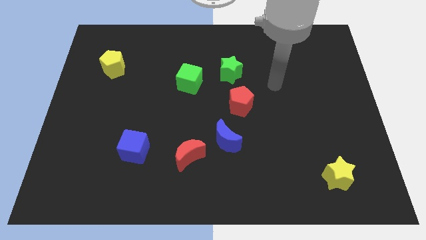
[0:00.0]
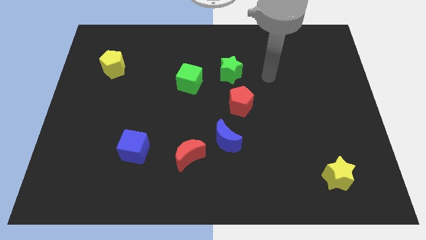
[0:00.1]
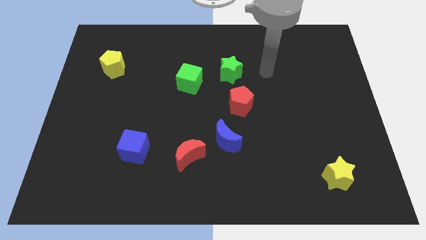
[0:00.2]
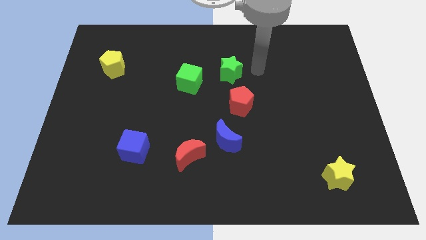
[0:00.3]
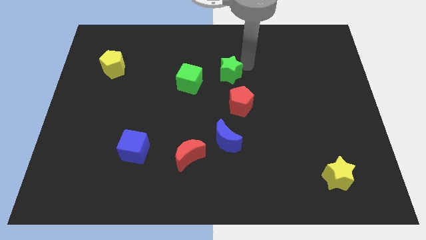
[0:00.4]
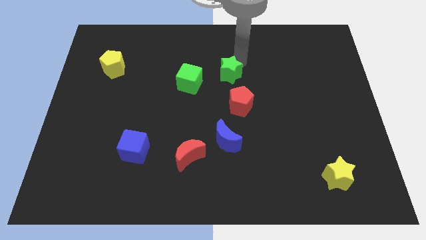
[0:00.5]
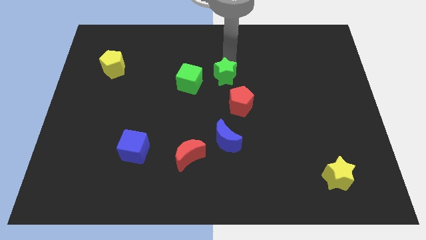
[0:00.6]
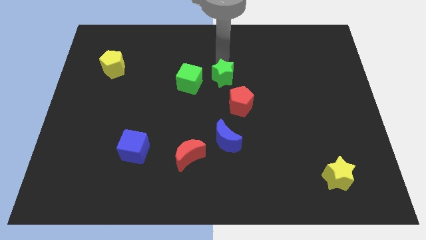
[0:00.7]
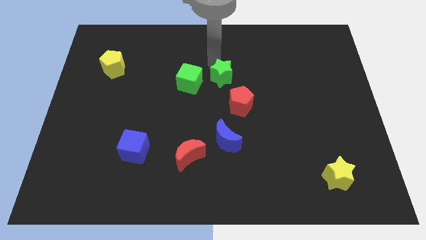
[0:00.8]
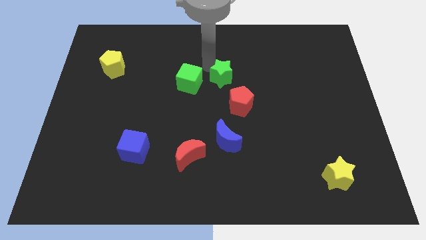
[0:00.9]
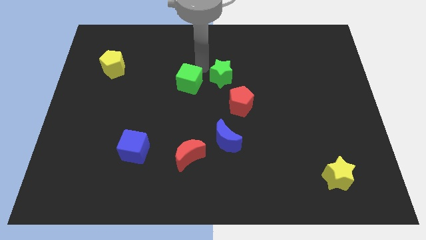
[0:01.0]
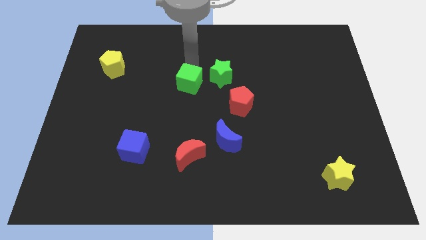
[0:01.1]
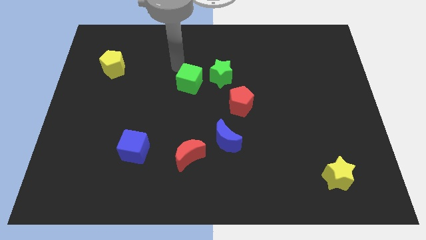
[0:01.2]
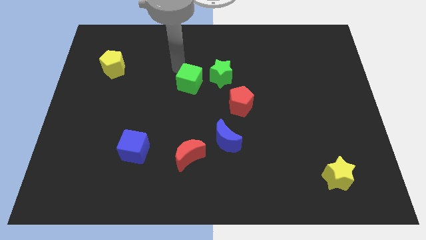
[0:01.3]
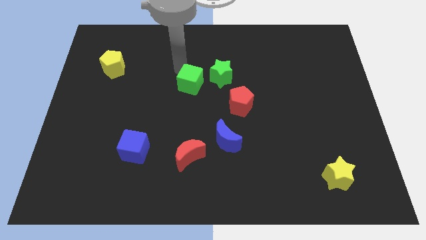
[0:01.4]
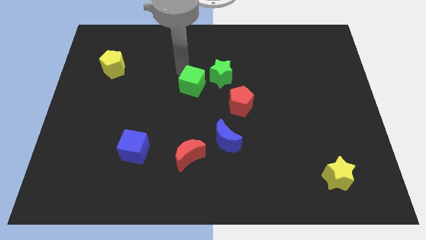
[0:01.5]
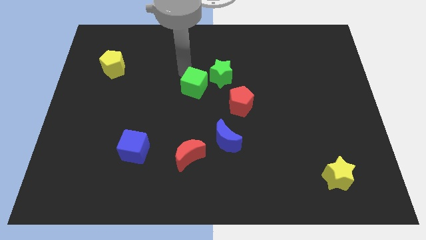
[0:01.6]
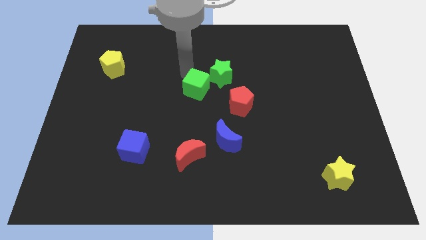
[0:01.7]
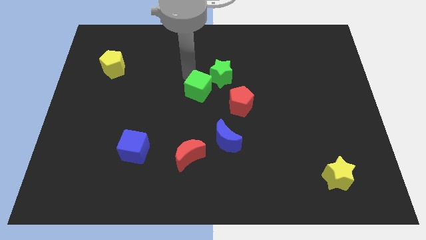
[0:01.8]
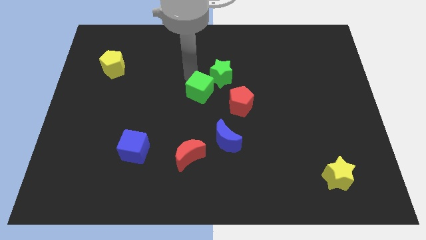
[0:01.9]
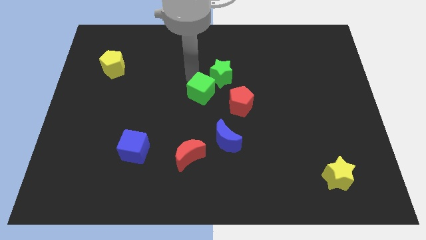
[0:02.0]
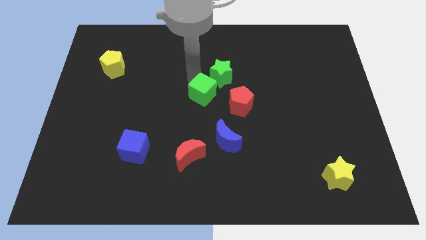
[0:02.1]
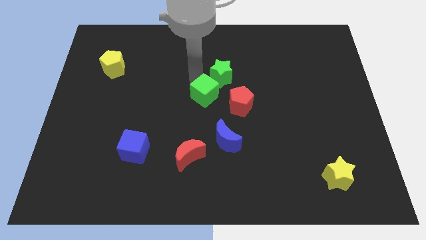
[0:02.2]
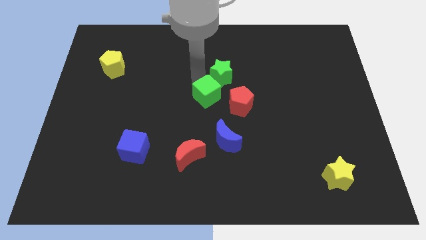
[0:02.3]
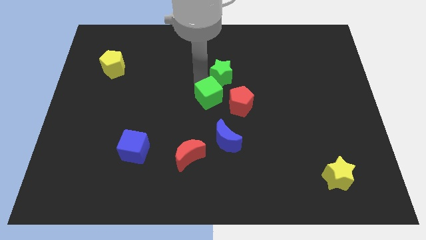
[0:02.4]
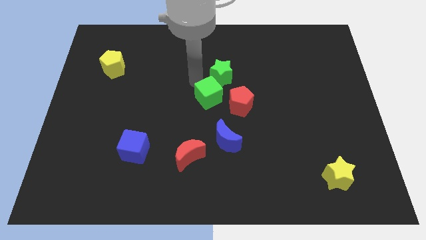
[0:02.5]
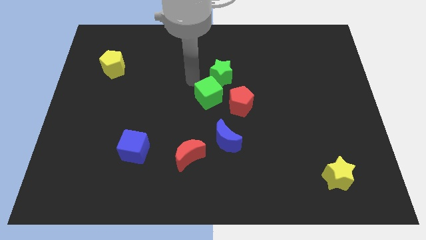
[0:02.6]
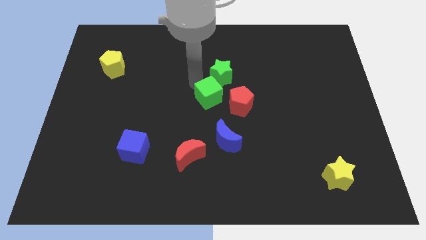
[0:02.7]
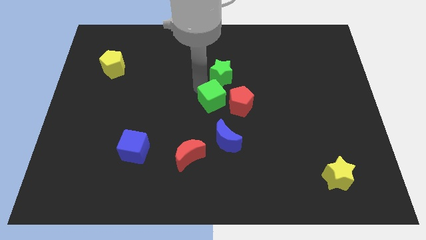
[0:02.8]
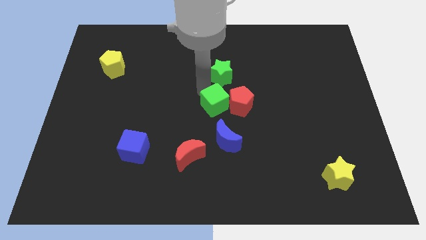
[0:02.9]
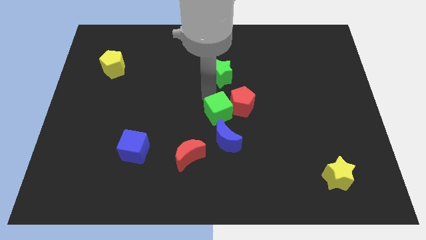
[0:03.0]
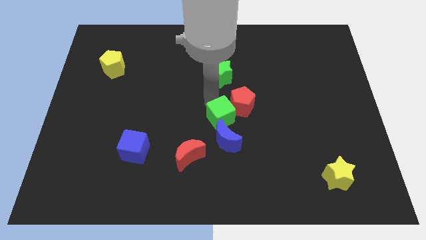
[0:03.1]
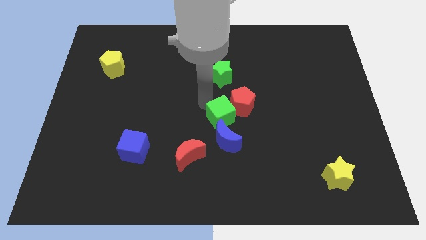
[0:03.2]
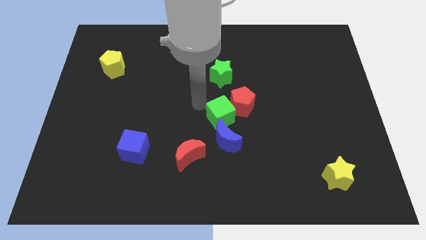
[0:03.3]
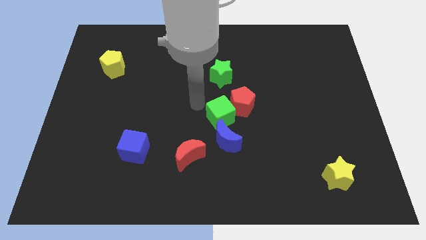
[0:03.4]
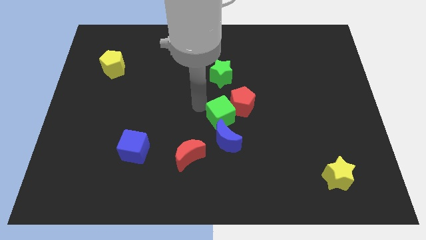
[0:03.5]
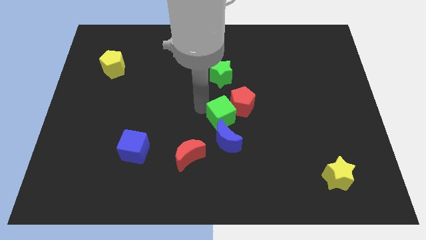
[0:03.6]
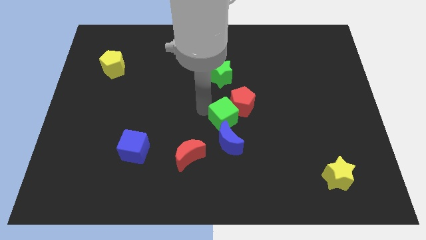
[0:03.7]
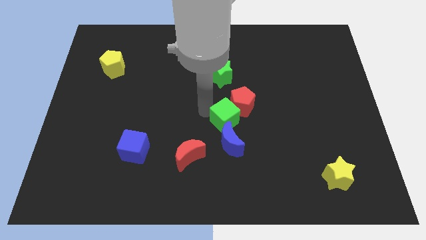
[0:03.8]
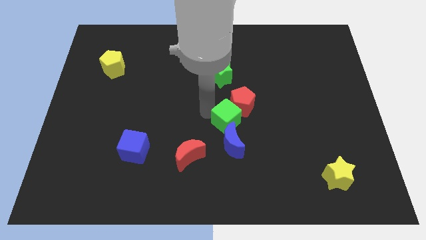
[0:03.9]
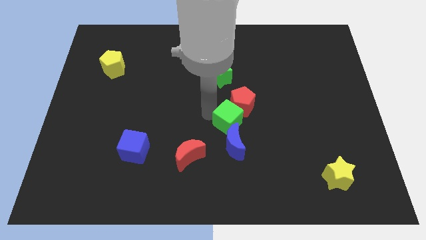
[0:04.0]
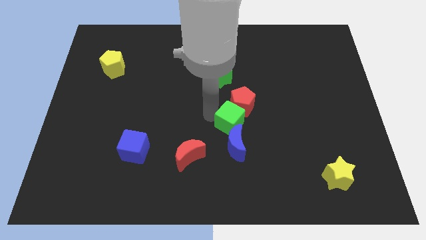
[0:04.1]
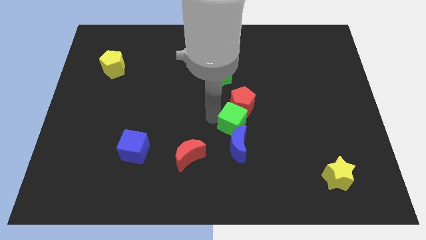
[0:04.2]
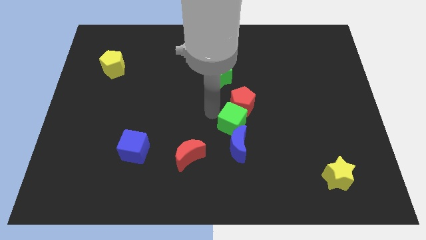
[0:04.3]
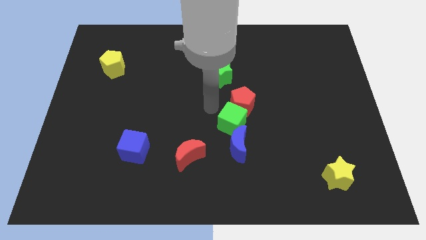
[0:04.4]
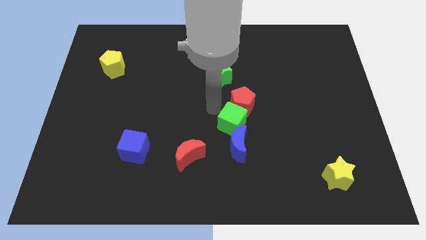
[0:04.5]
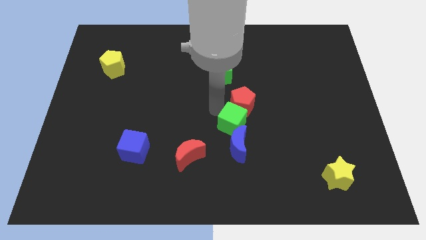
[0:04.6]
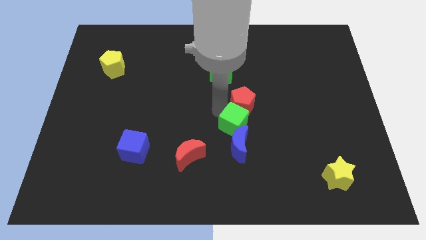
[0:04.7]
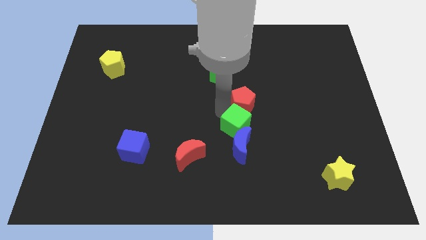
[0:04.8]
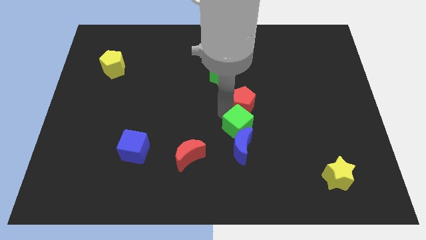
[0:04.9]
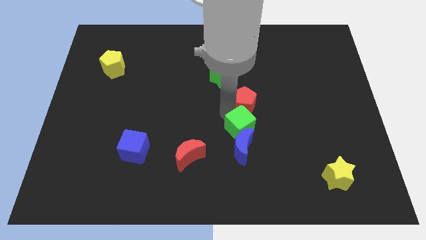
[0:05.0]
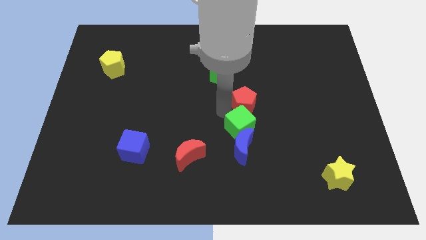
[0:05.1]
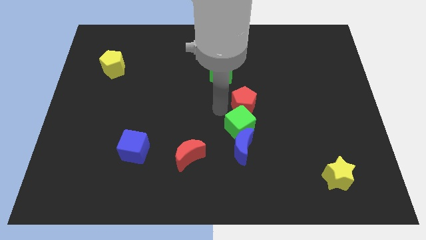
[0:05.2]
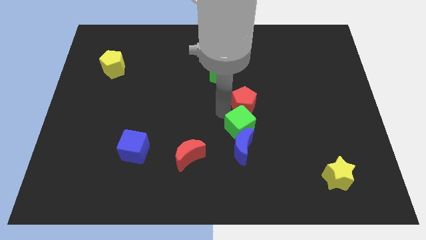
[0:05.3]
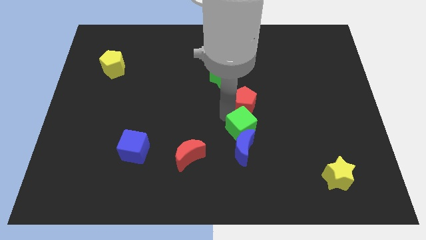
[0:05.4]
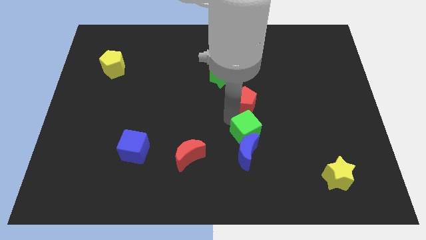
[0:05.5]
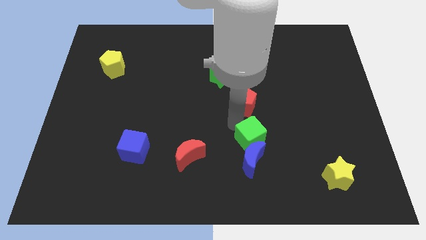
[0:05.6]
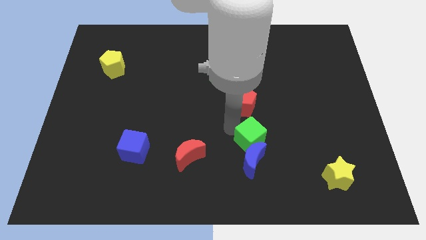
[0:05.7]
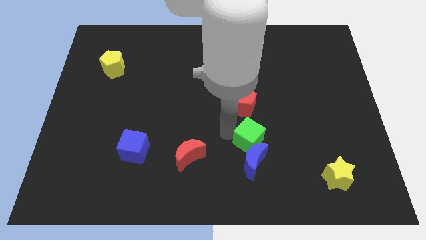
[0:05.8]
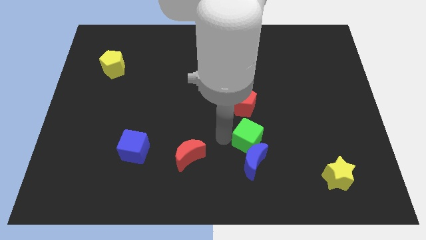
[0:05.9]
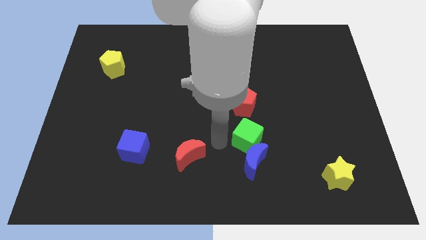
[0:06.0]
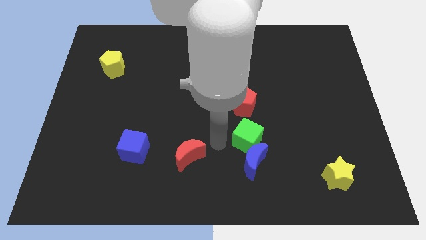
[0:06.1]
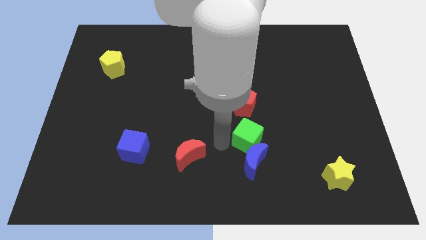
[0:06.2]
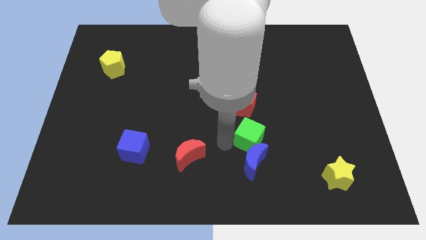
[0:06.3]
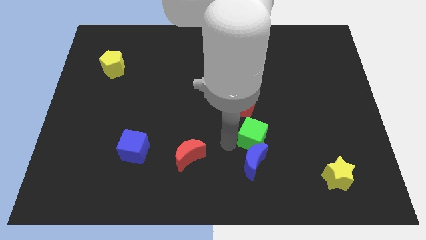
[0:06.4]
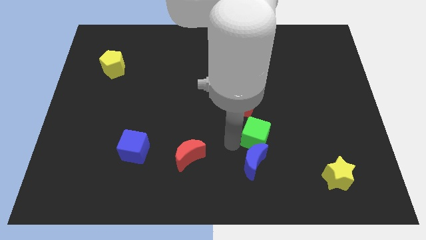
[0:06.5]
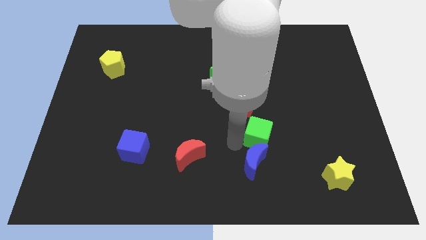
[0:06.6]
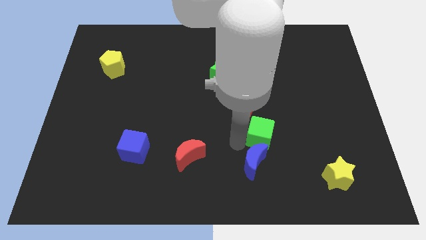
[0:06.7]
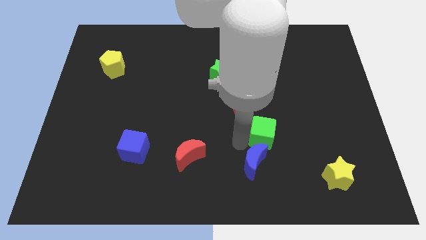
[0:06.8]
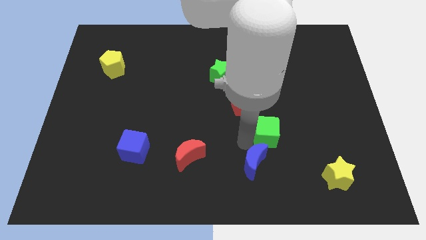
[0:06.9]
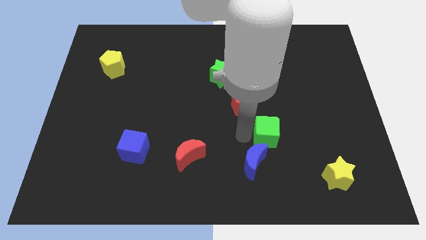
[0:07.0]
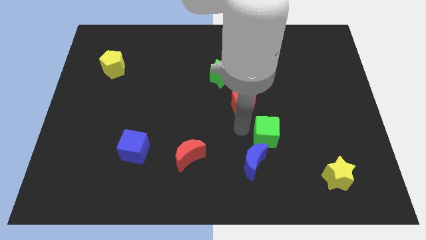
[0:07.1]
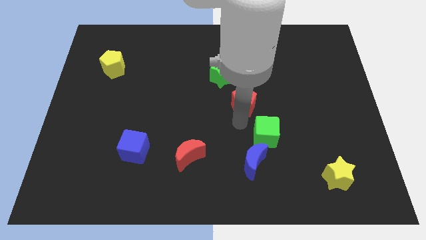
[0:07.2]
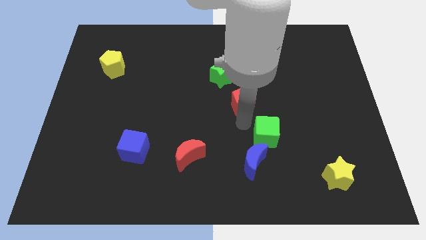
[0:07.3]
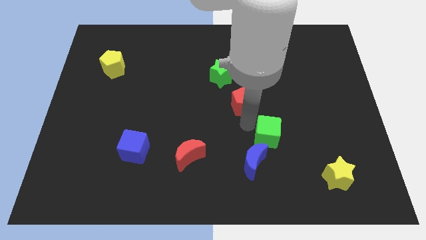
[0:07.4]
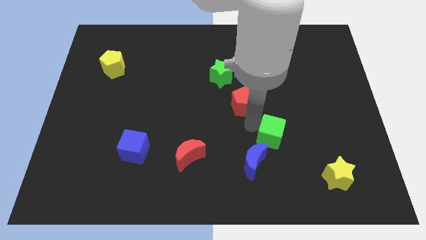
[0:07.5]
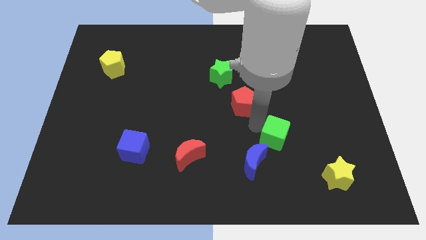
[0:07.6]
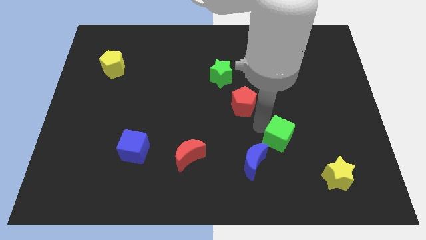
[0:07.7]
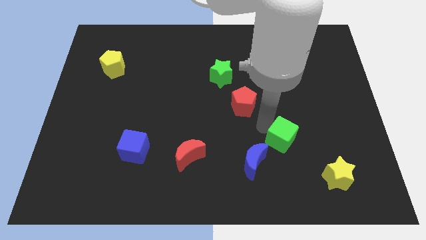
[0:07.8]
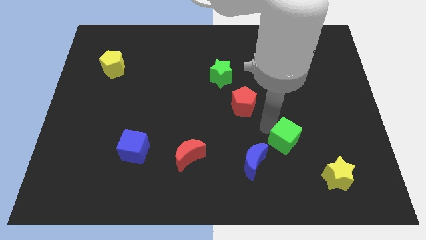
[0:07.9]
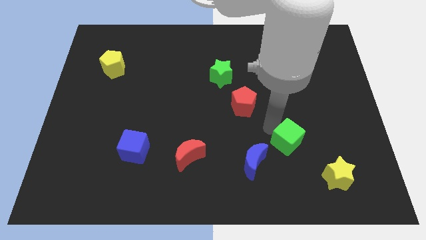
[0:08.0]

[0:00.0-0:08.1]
put the green cube to the top left of the yellow star

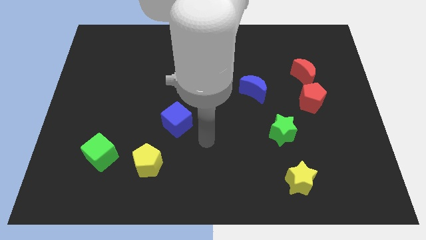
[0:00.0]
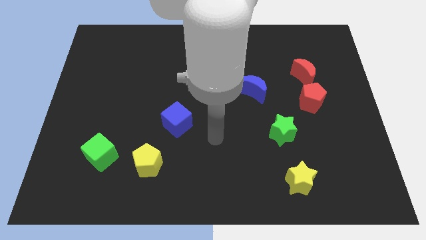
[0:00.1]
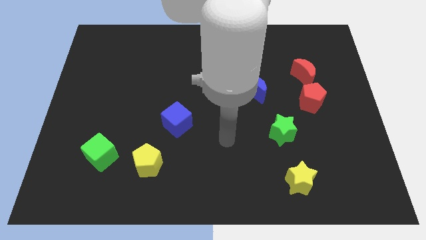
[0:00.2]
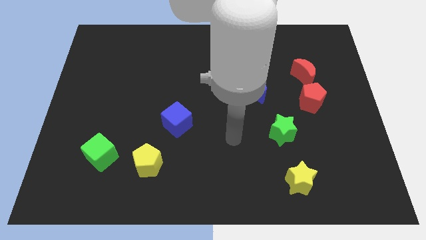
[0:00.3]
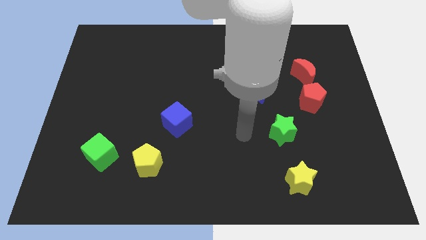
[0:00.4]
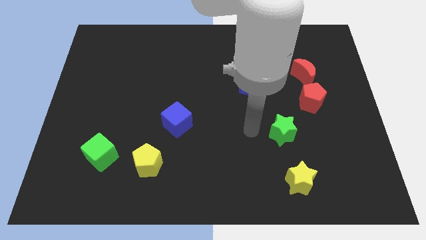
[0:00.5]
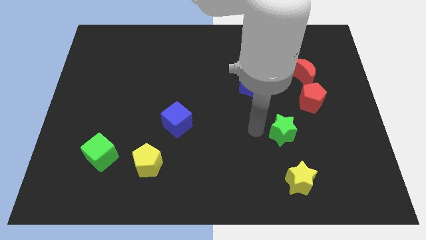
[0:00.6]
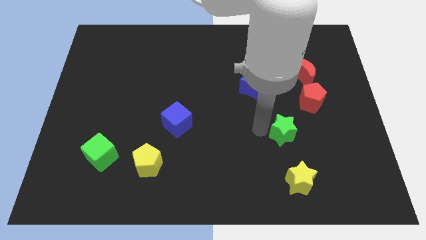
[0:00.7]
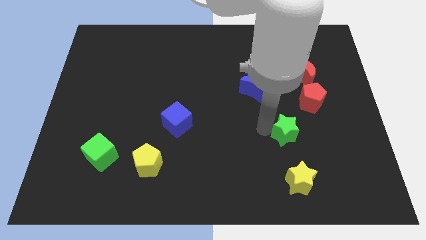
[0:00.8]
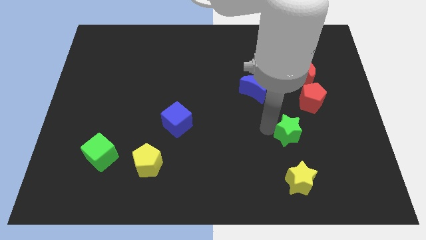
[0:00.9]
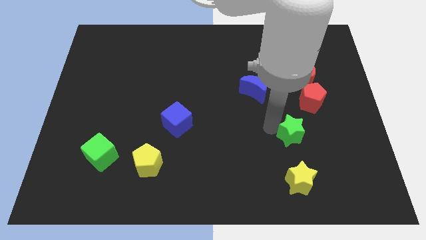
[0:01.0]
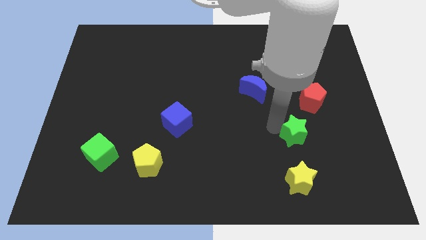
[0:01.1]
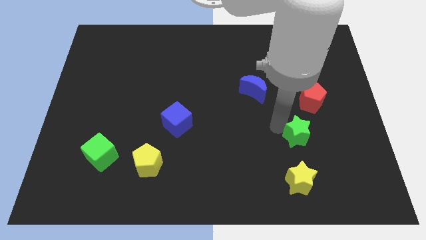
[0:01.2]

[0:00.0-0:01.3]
move the green star to the bottom of the red pentagon
